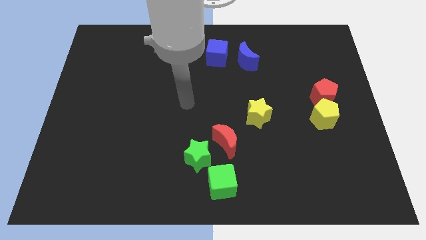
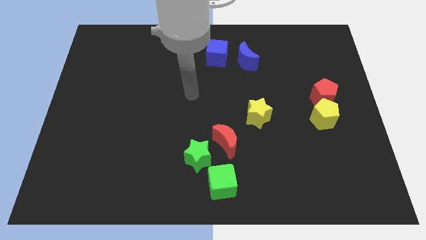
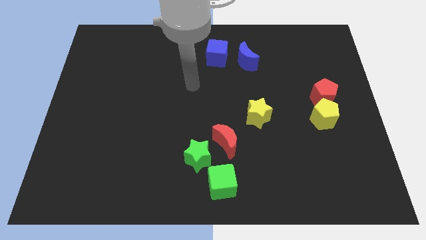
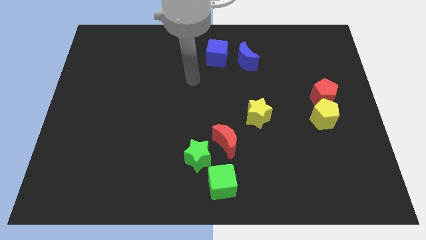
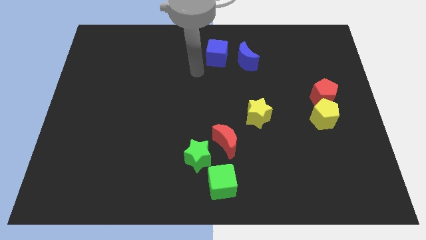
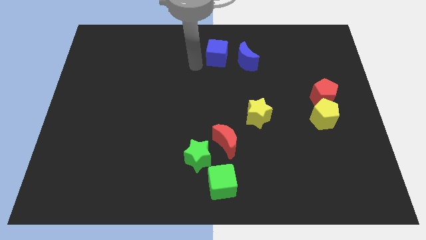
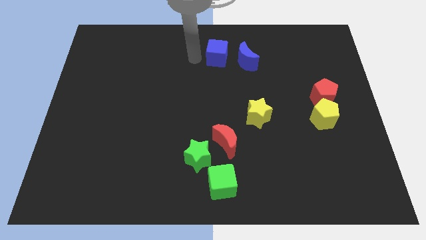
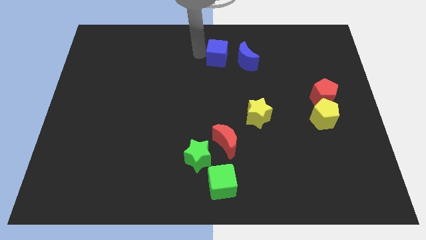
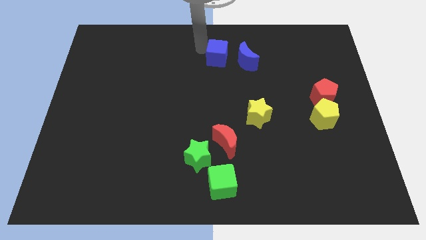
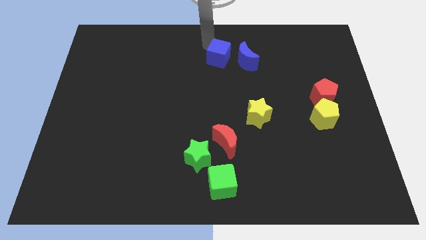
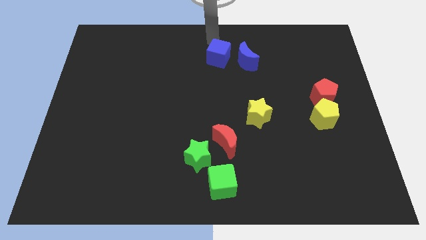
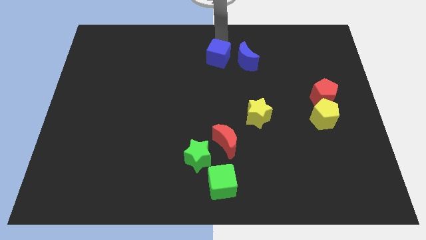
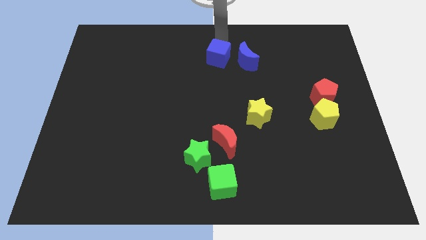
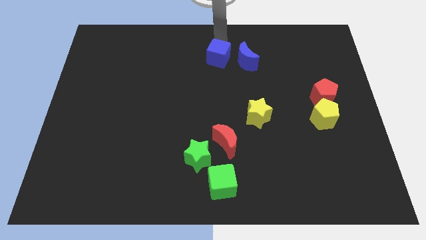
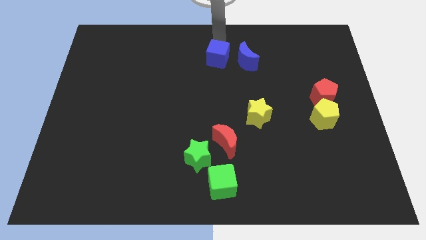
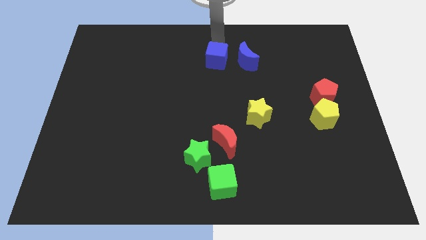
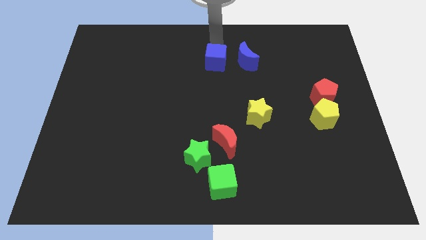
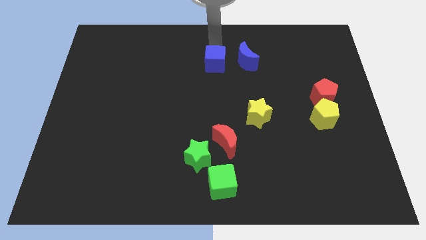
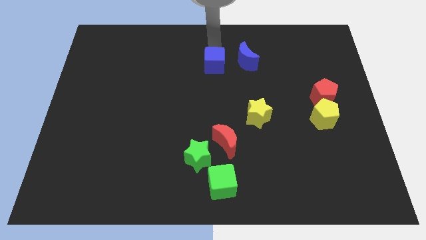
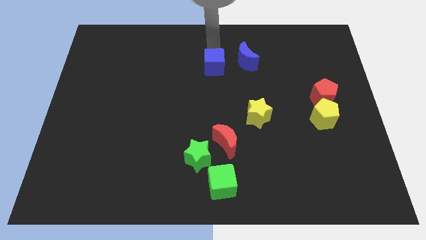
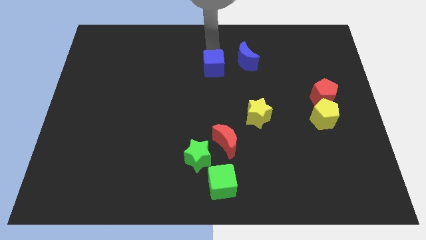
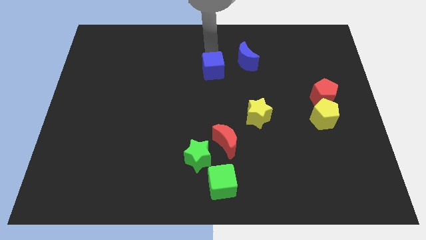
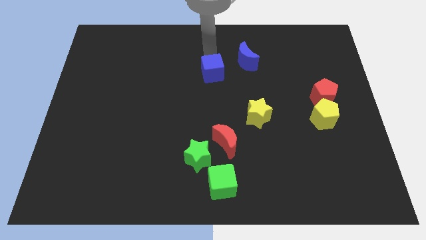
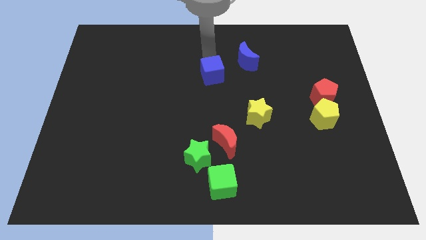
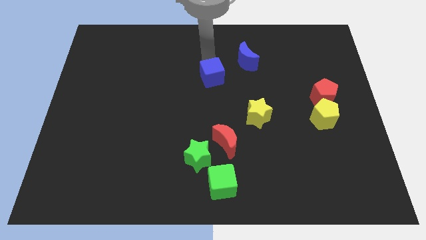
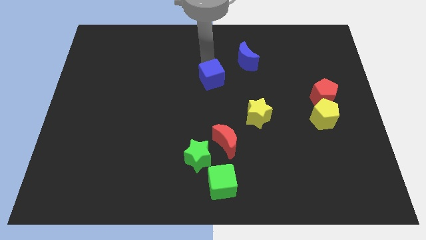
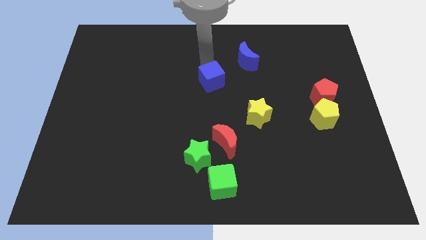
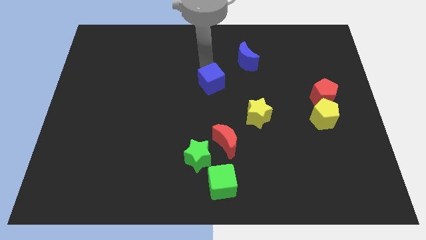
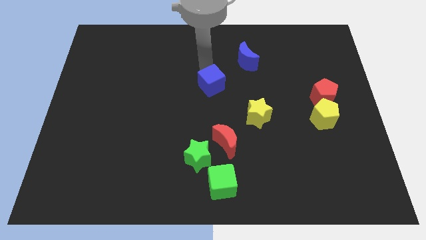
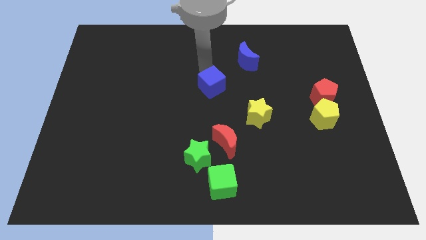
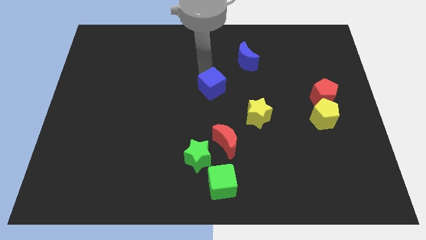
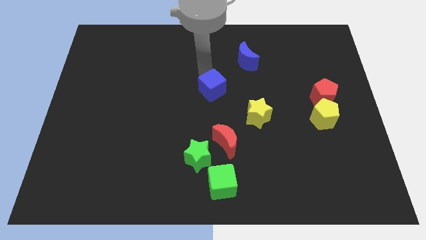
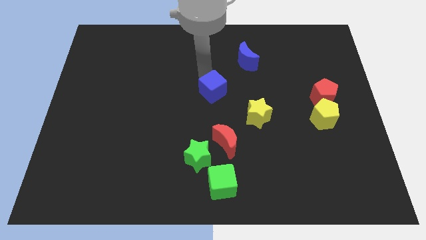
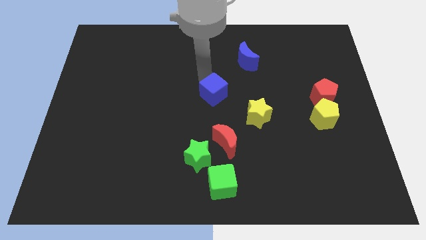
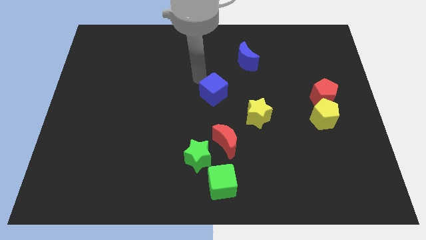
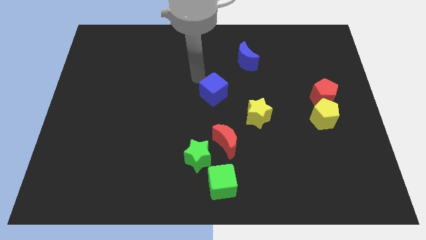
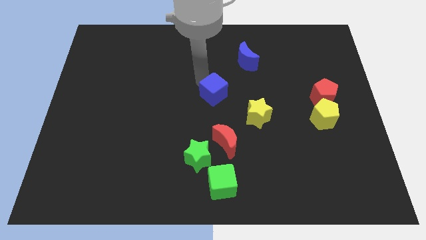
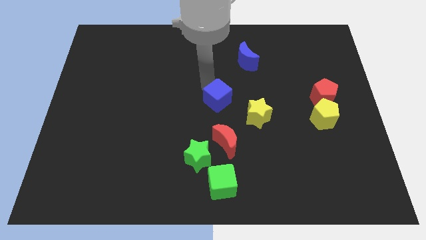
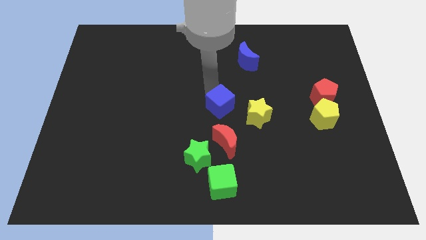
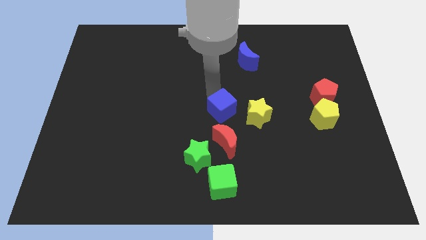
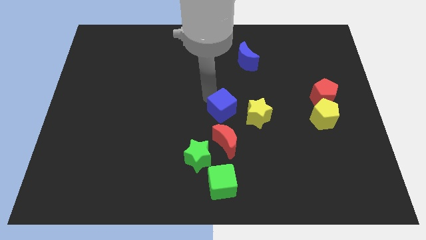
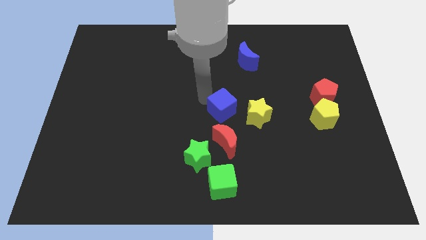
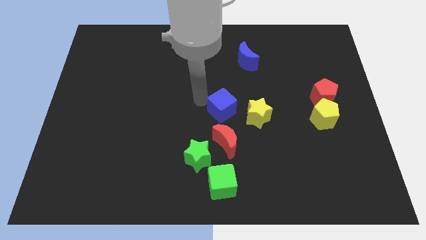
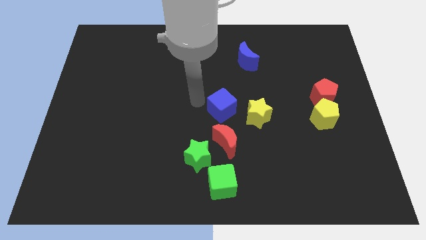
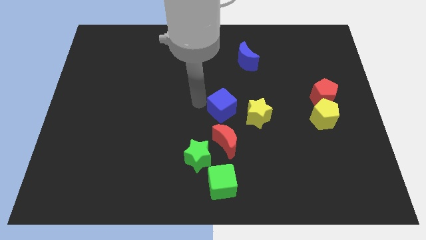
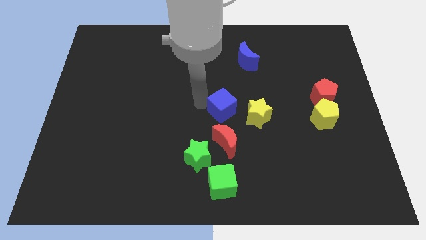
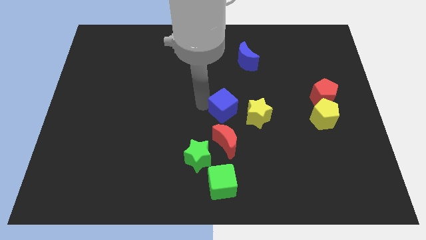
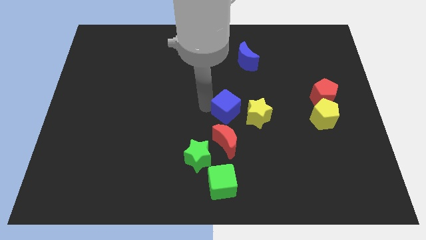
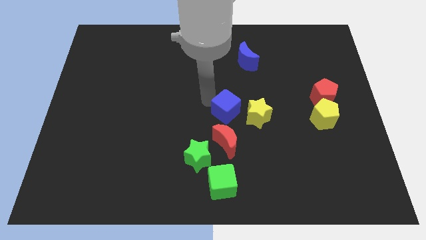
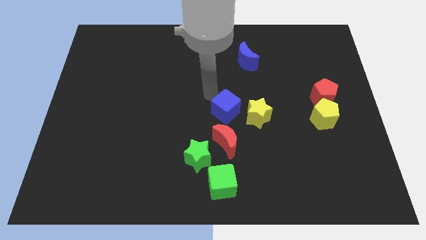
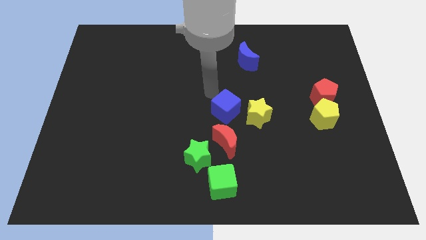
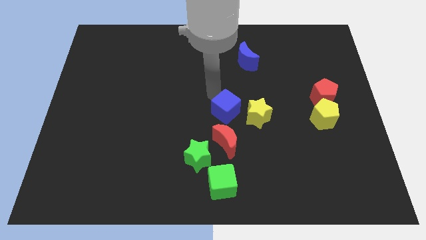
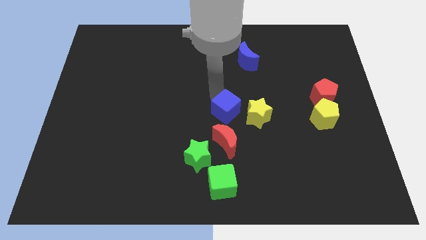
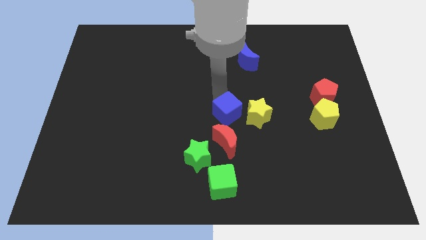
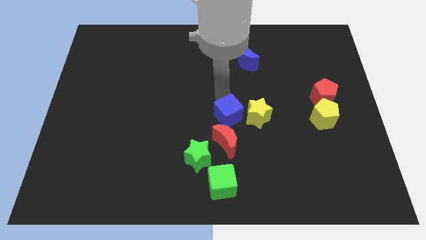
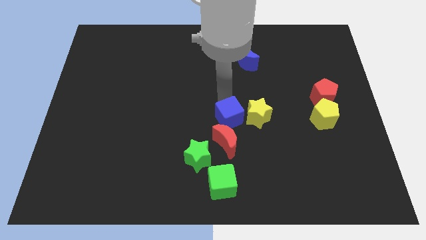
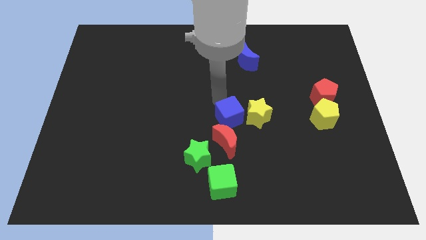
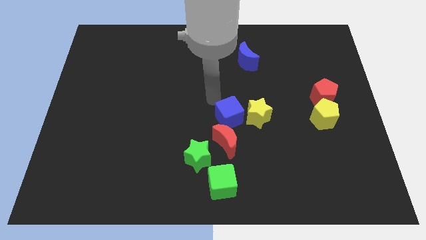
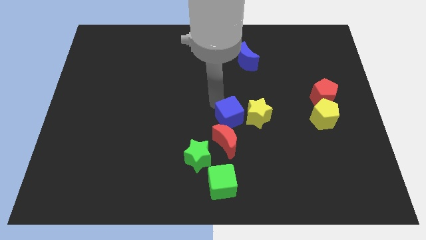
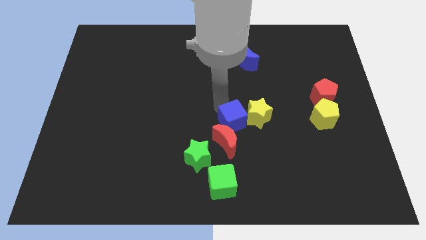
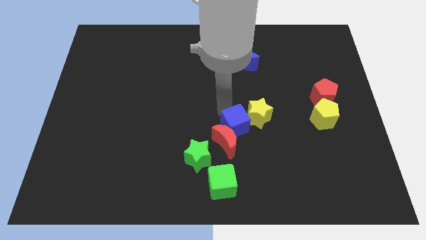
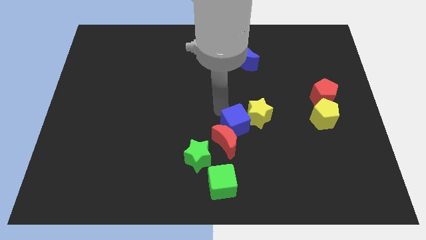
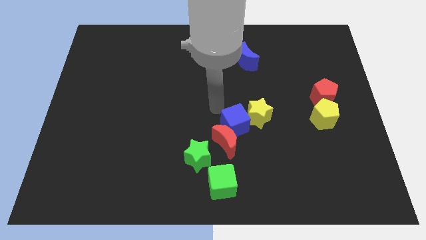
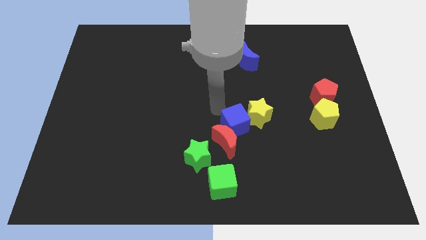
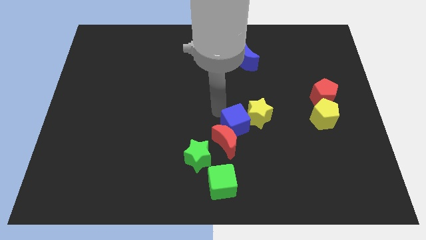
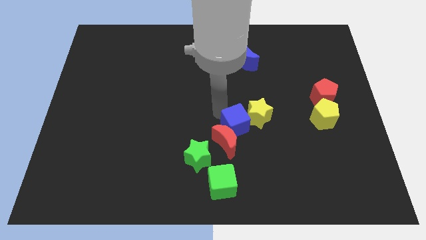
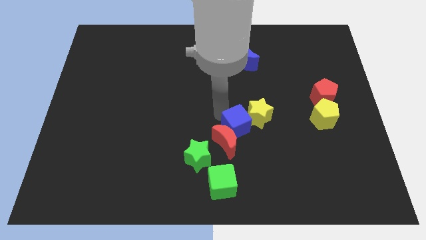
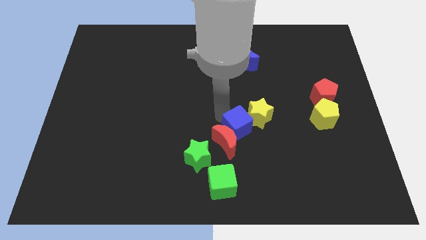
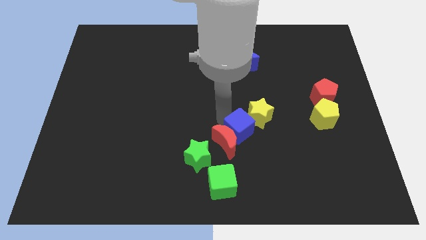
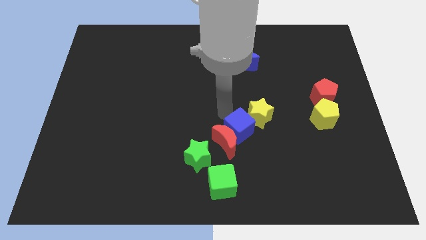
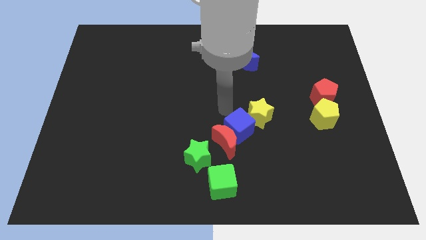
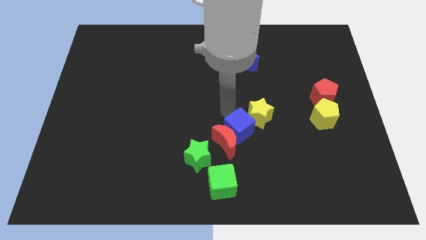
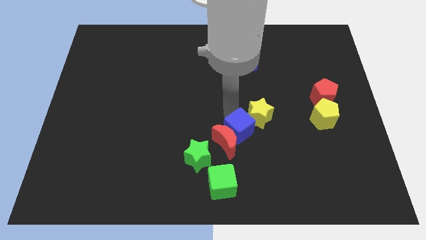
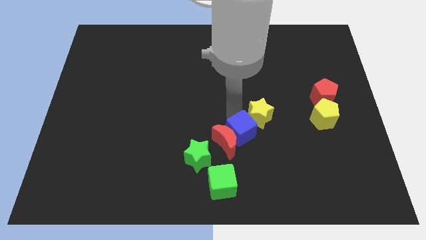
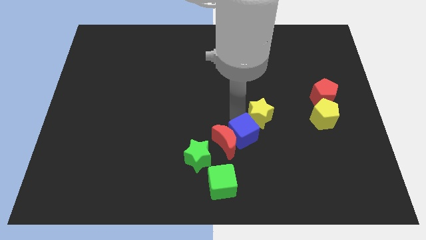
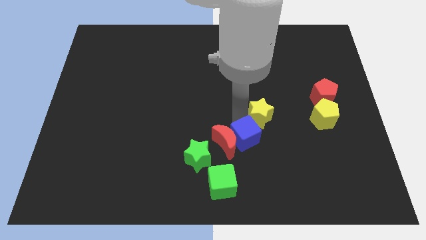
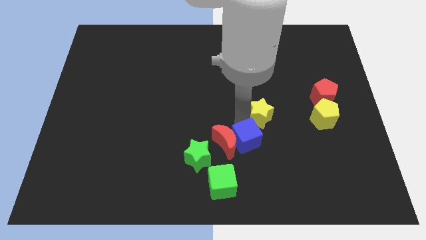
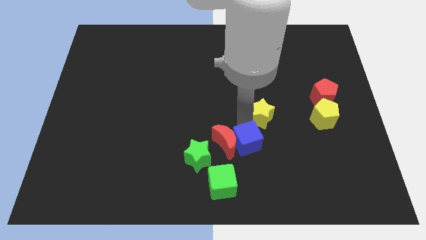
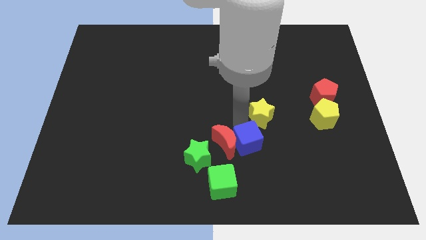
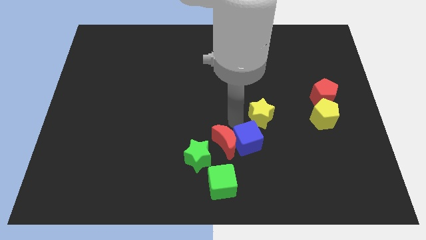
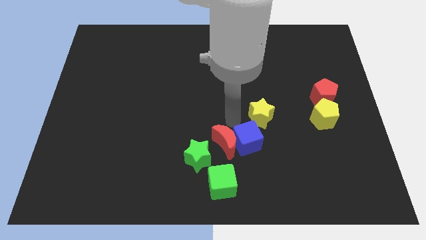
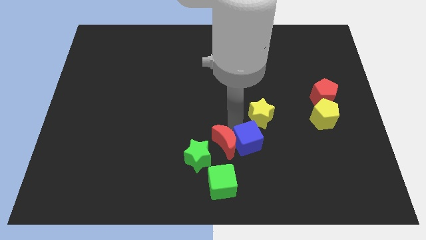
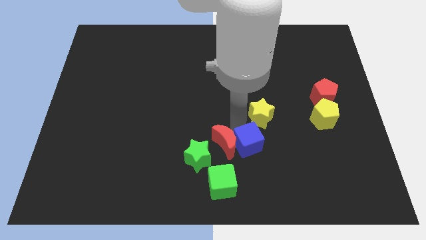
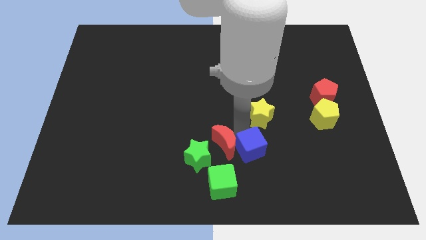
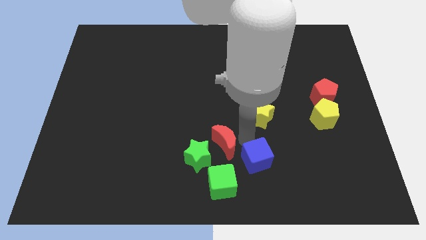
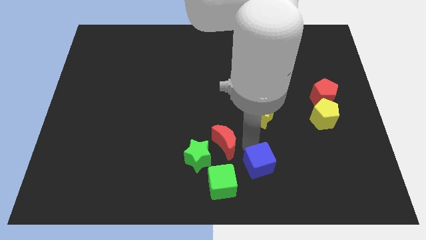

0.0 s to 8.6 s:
push the blue cube just right of the green cube
